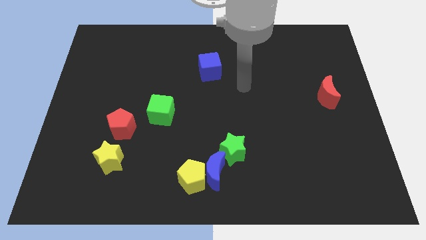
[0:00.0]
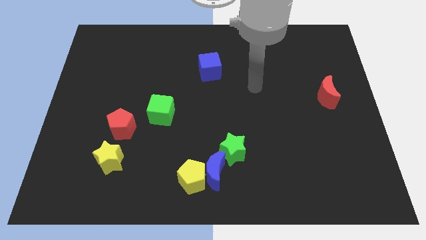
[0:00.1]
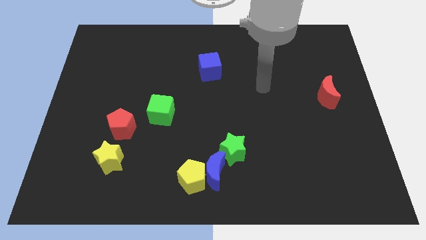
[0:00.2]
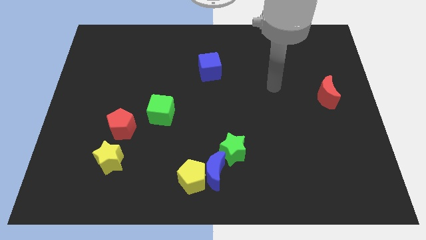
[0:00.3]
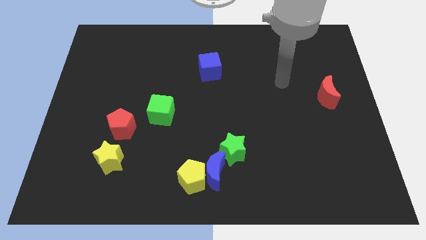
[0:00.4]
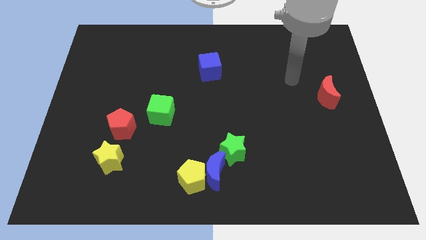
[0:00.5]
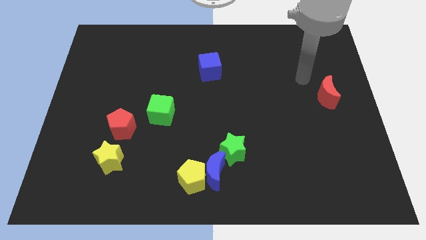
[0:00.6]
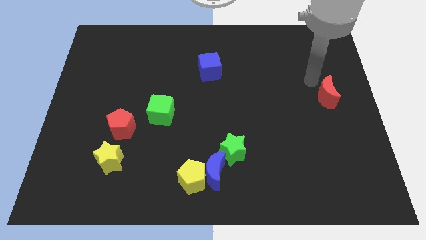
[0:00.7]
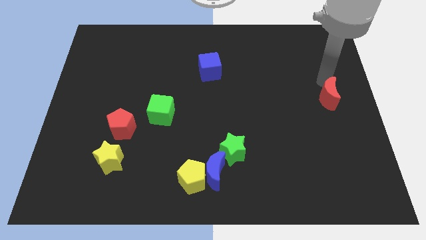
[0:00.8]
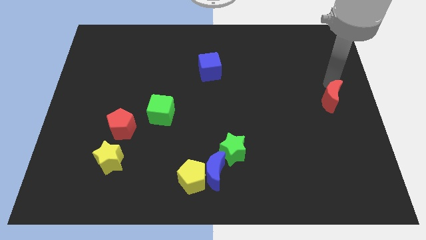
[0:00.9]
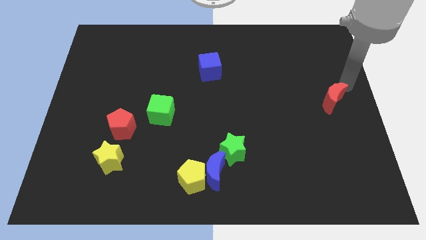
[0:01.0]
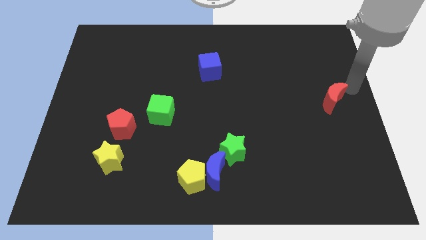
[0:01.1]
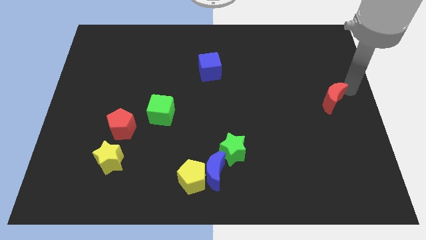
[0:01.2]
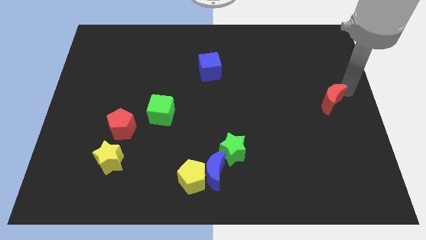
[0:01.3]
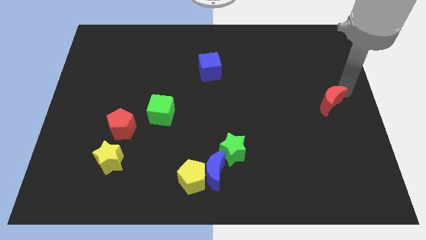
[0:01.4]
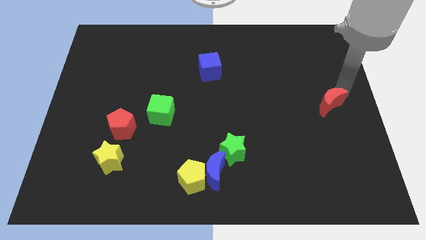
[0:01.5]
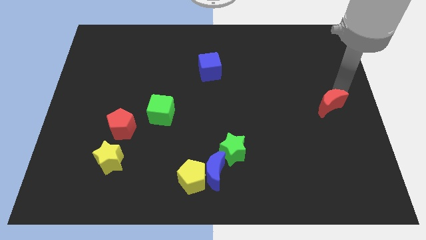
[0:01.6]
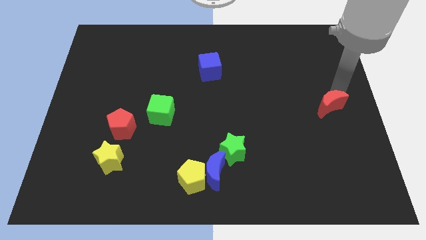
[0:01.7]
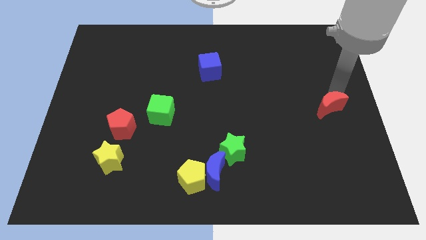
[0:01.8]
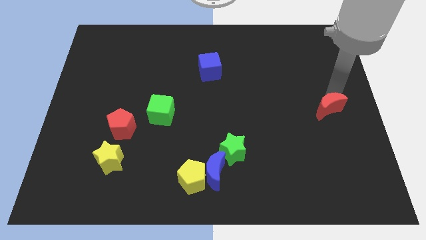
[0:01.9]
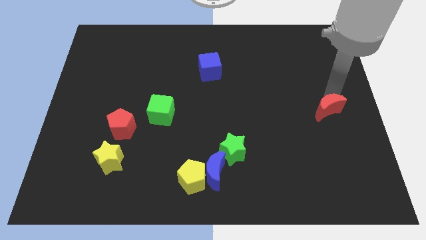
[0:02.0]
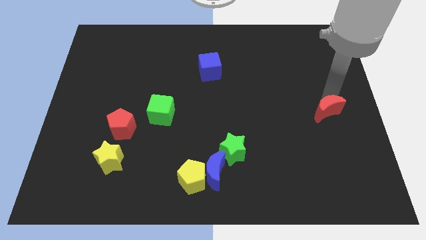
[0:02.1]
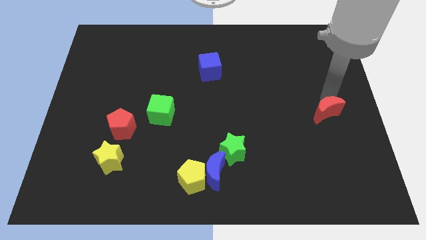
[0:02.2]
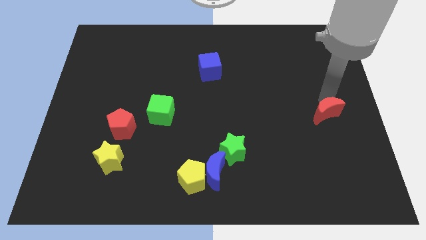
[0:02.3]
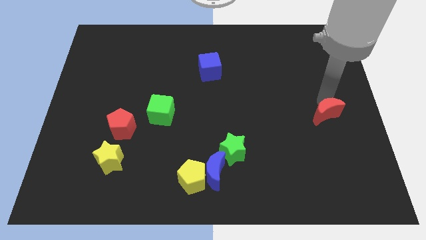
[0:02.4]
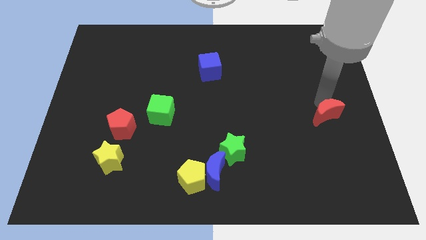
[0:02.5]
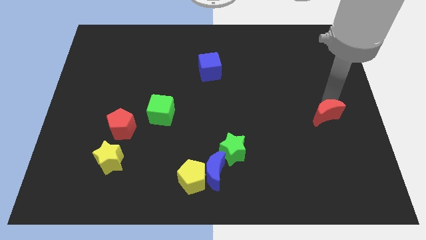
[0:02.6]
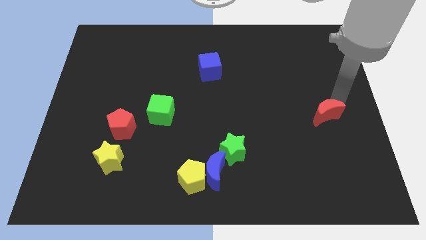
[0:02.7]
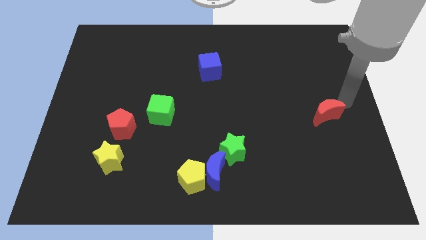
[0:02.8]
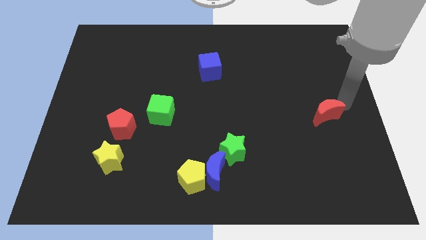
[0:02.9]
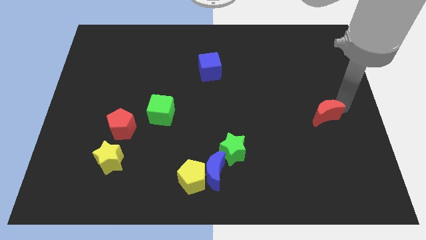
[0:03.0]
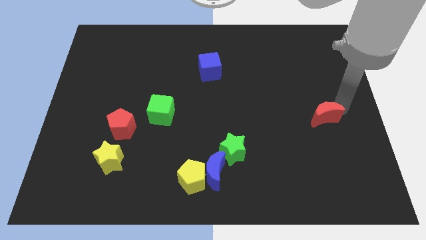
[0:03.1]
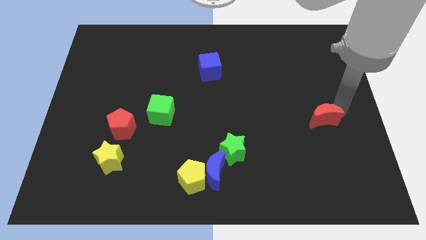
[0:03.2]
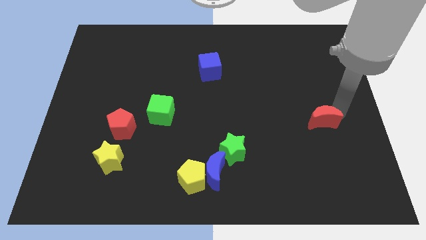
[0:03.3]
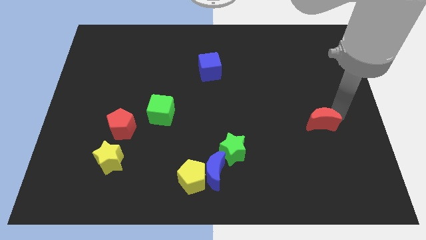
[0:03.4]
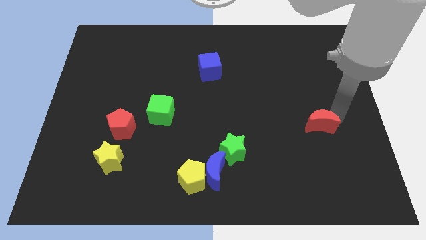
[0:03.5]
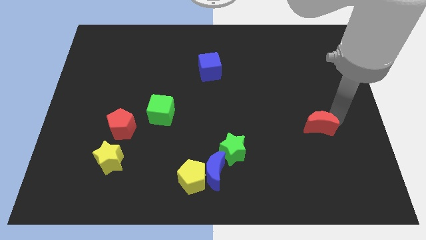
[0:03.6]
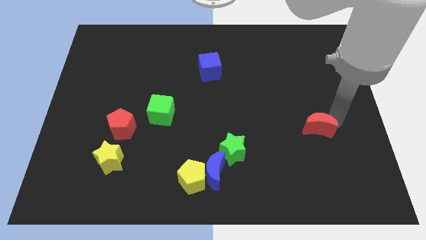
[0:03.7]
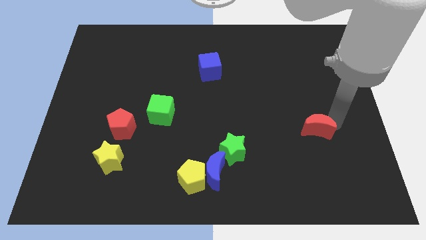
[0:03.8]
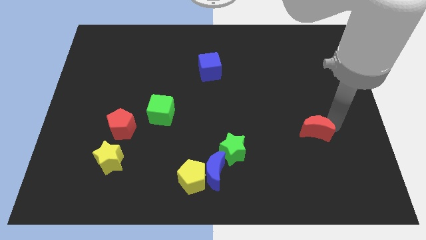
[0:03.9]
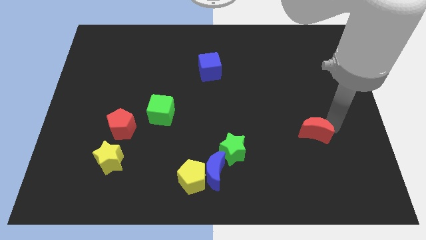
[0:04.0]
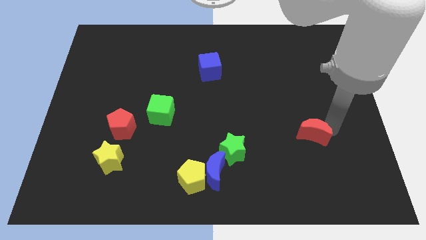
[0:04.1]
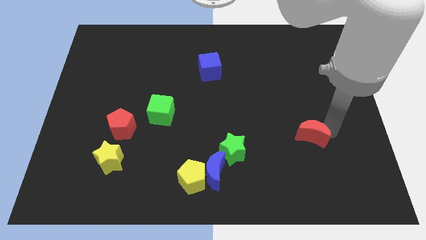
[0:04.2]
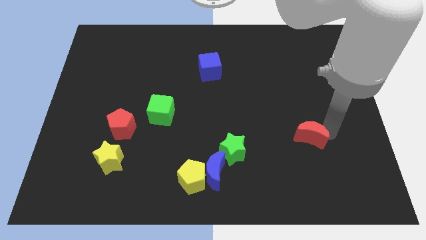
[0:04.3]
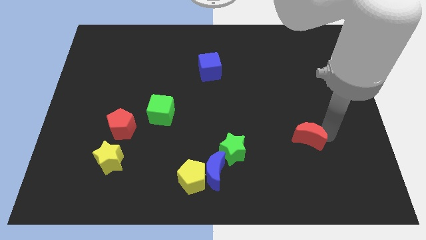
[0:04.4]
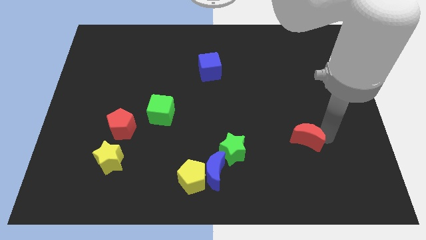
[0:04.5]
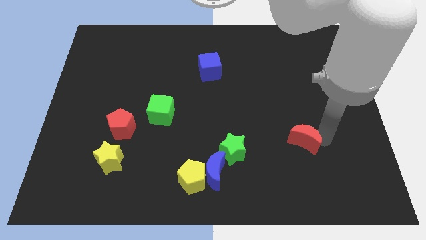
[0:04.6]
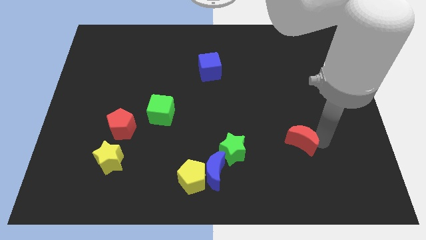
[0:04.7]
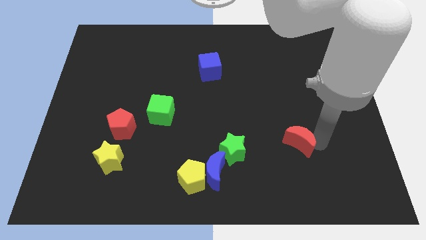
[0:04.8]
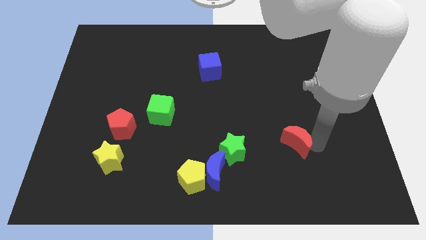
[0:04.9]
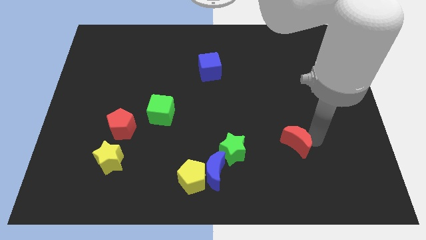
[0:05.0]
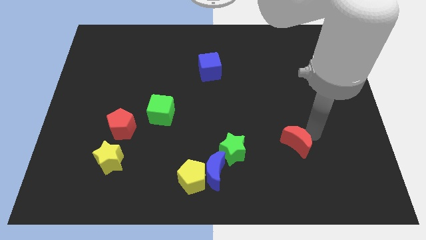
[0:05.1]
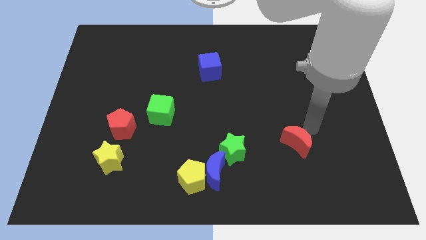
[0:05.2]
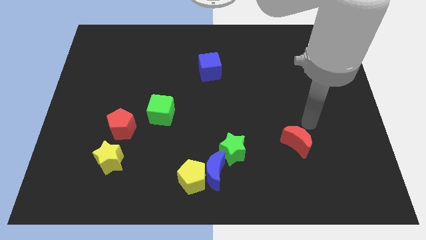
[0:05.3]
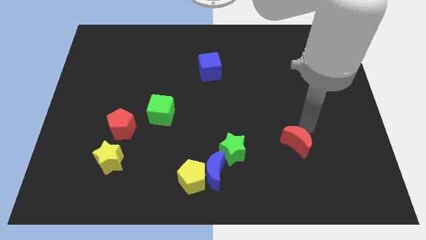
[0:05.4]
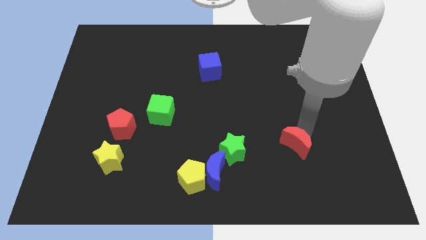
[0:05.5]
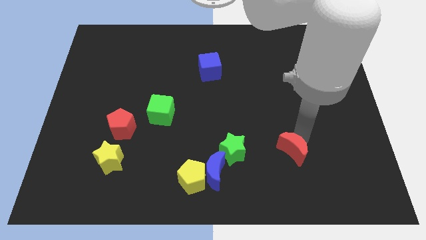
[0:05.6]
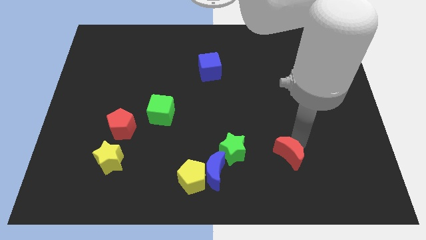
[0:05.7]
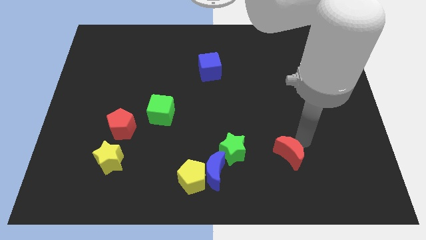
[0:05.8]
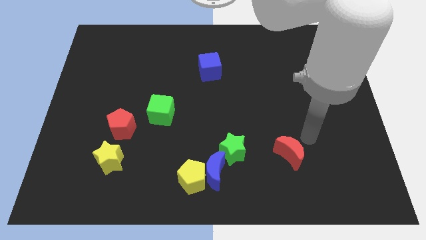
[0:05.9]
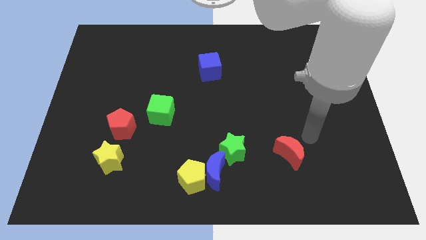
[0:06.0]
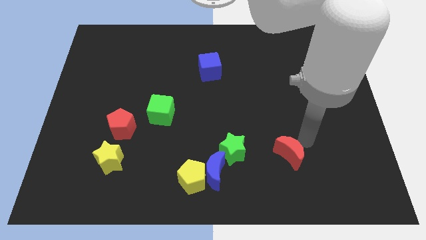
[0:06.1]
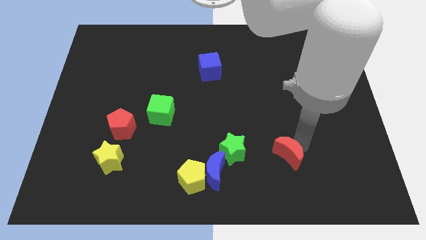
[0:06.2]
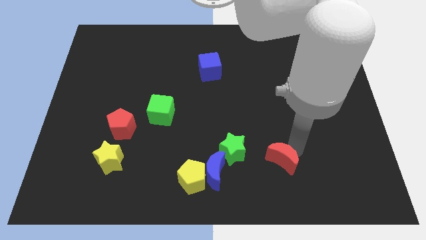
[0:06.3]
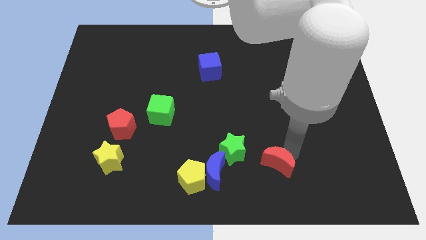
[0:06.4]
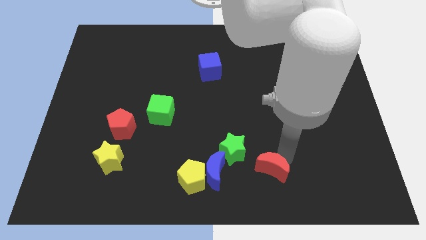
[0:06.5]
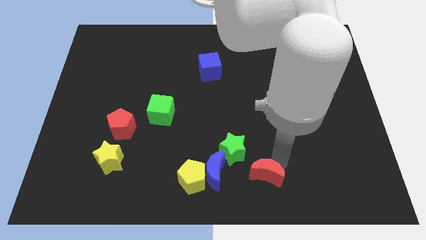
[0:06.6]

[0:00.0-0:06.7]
slide the red moon to the bottom

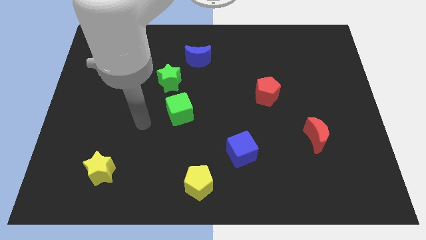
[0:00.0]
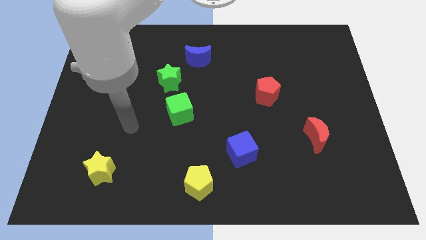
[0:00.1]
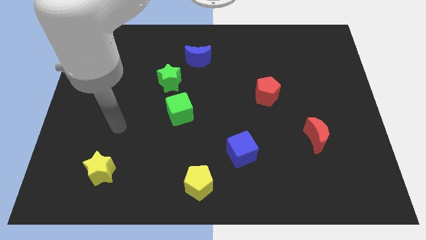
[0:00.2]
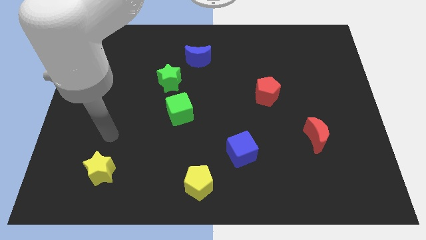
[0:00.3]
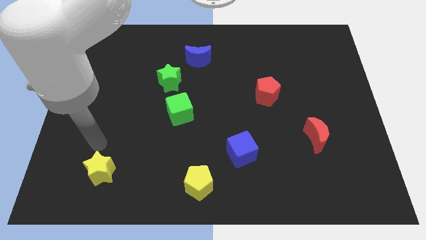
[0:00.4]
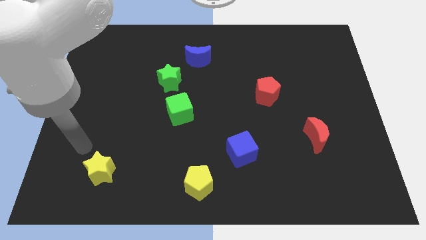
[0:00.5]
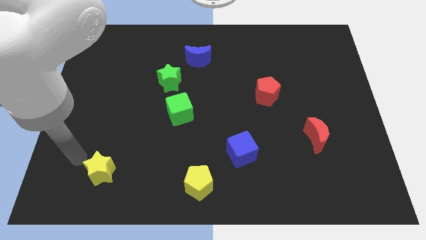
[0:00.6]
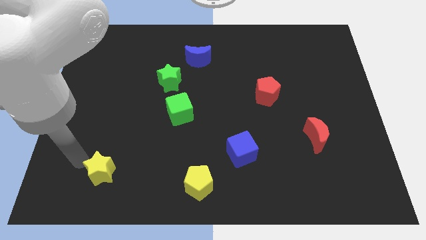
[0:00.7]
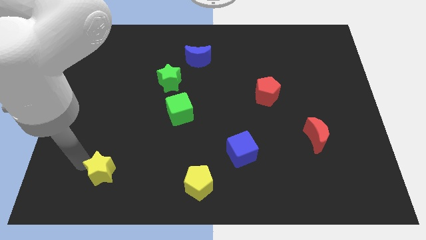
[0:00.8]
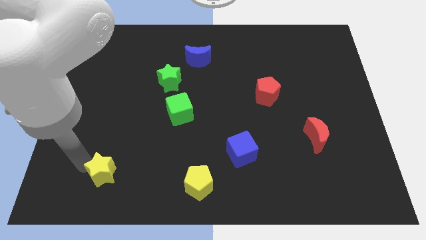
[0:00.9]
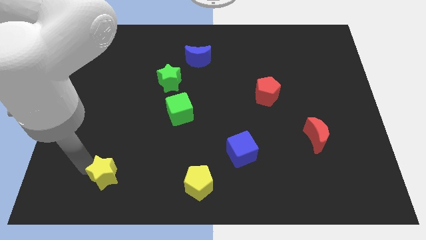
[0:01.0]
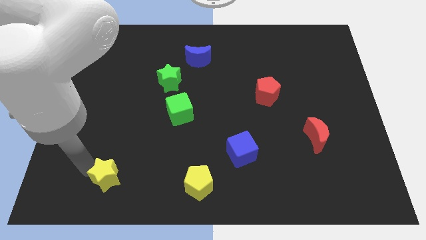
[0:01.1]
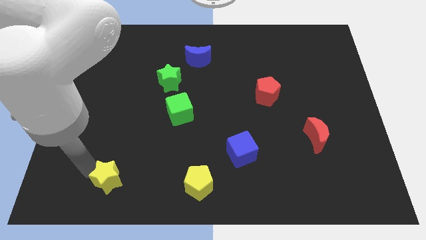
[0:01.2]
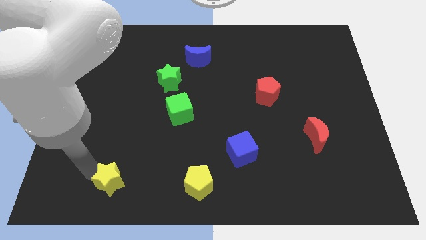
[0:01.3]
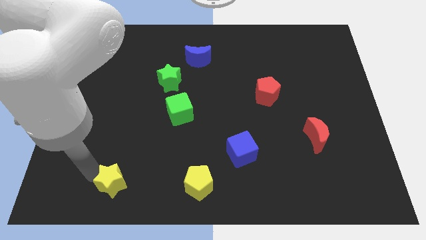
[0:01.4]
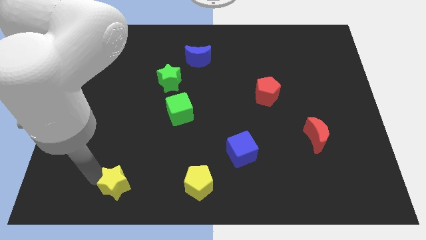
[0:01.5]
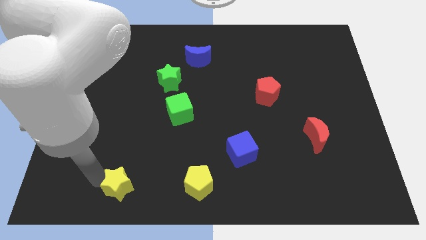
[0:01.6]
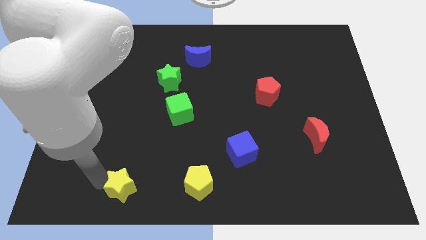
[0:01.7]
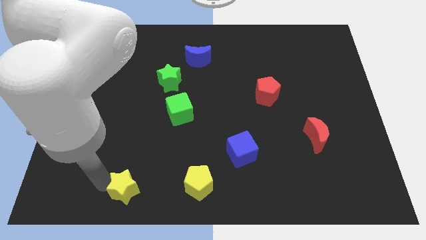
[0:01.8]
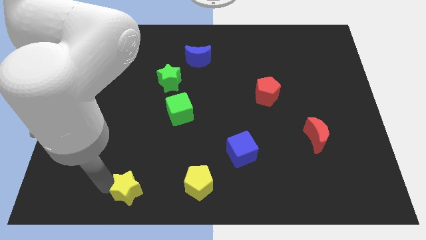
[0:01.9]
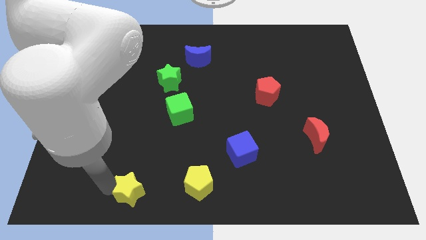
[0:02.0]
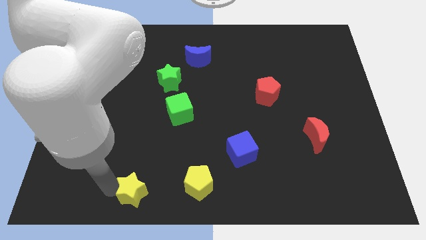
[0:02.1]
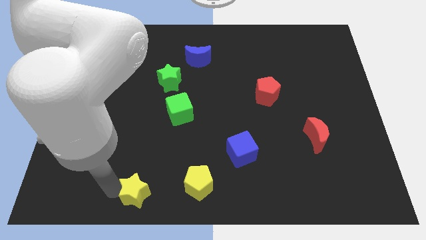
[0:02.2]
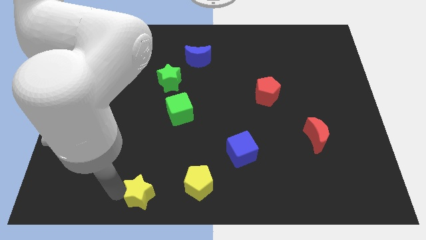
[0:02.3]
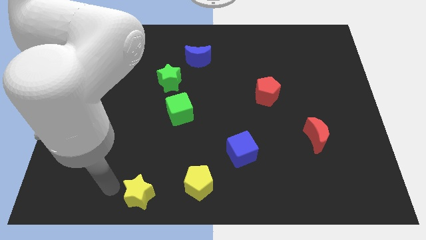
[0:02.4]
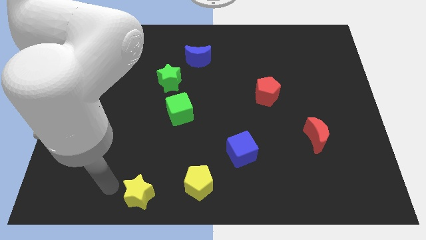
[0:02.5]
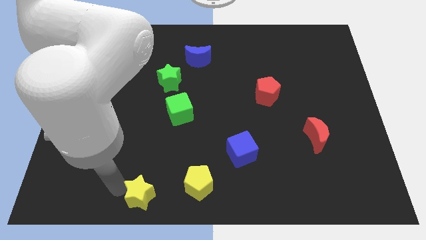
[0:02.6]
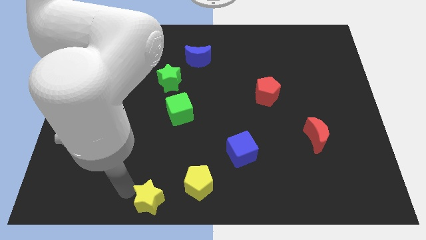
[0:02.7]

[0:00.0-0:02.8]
put the yellow star to the bottom
